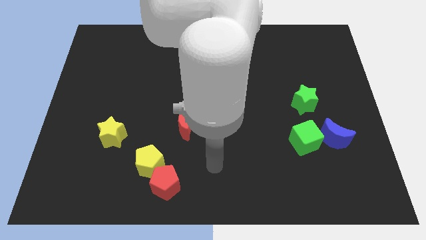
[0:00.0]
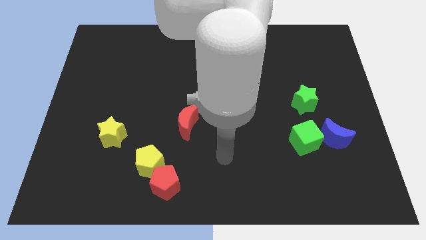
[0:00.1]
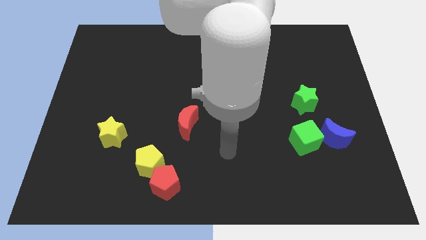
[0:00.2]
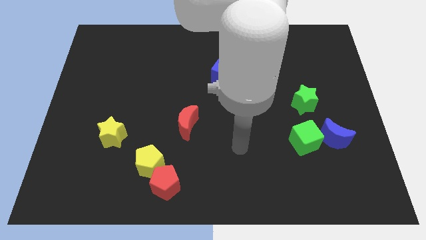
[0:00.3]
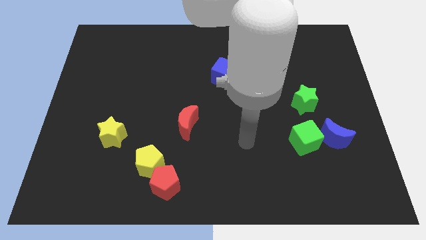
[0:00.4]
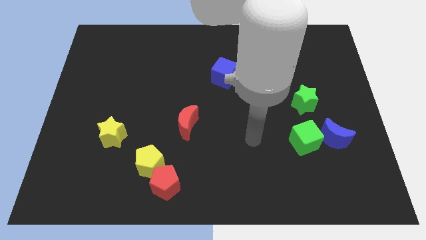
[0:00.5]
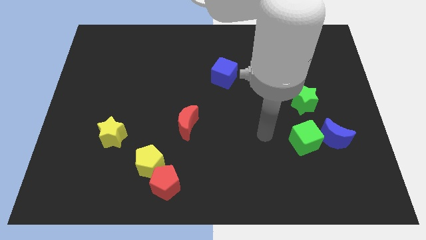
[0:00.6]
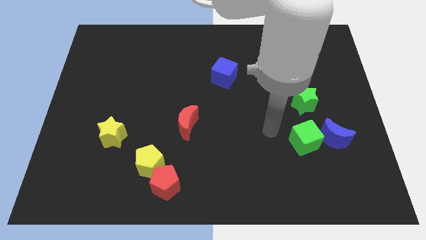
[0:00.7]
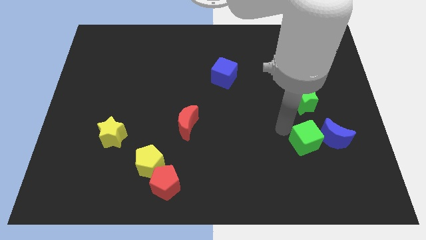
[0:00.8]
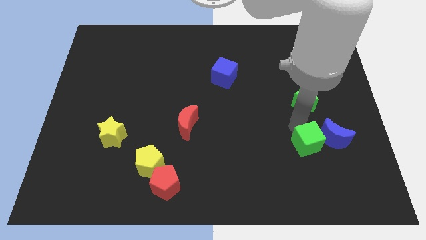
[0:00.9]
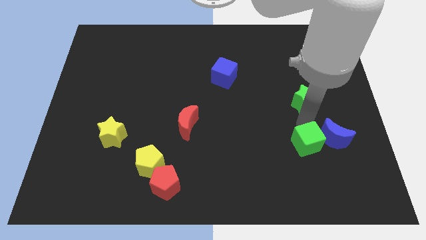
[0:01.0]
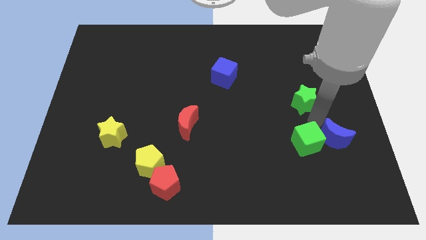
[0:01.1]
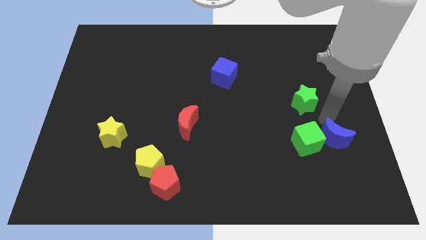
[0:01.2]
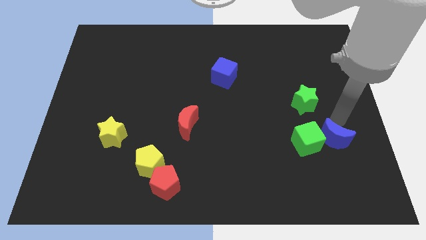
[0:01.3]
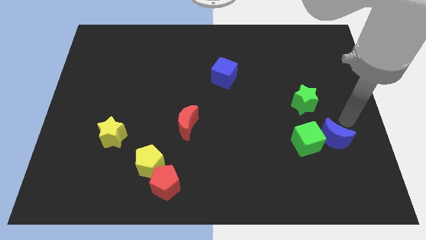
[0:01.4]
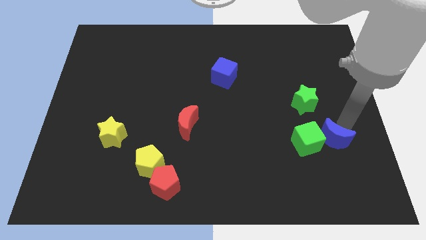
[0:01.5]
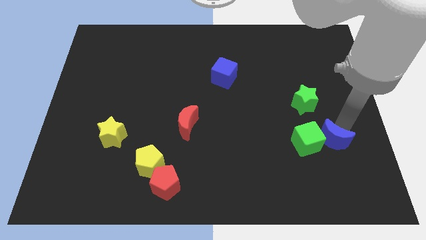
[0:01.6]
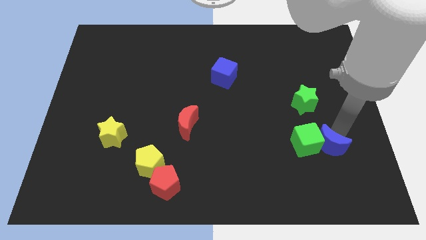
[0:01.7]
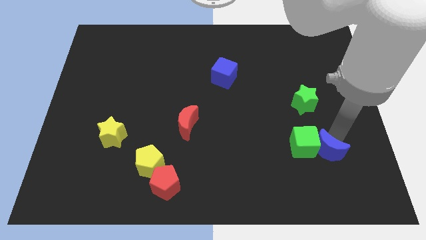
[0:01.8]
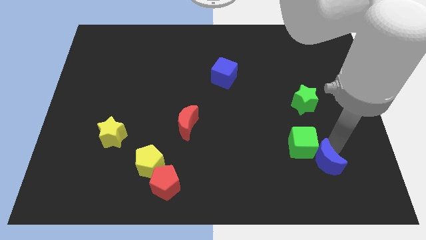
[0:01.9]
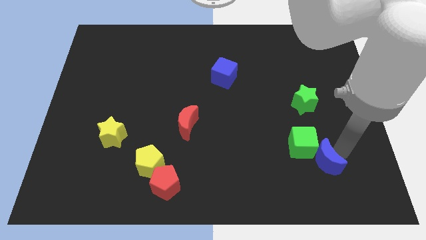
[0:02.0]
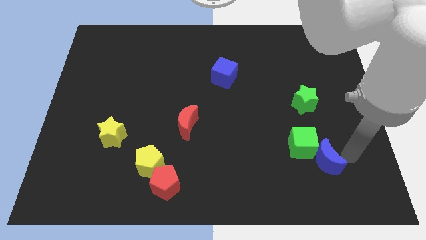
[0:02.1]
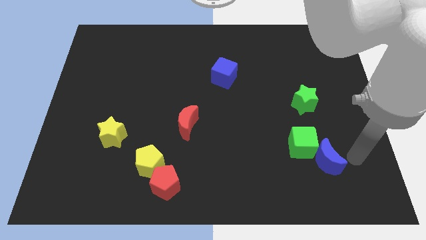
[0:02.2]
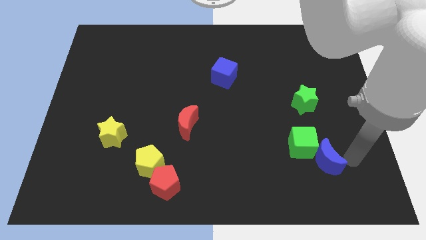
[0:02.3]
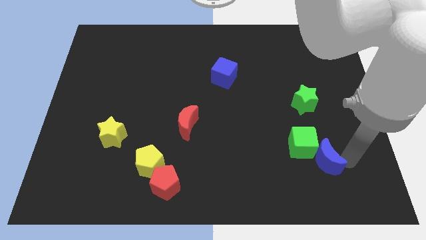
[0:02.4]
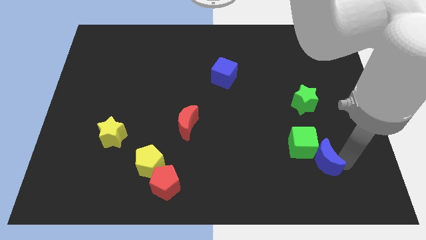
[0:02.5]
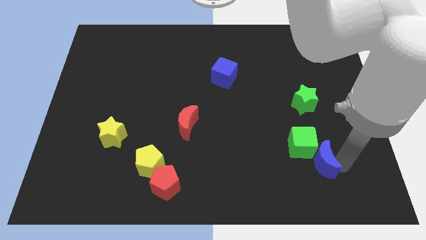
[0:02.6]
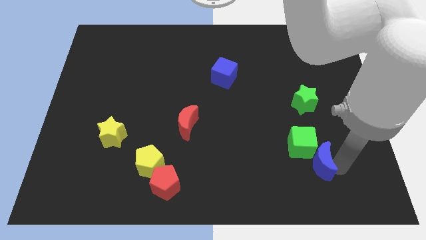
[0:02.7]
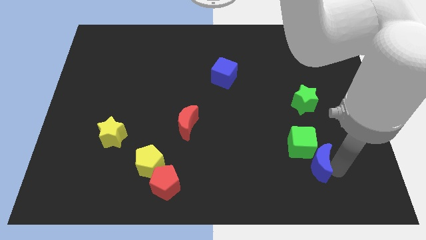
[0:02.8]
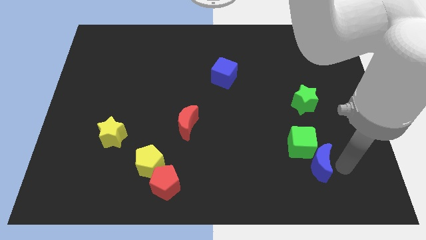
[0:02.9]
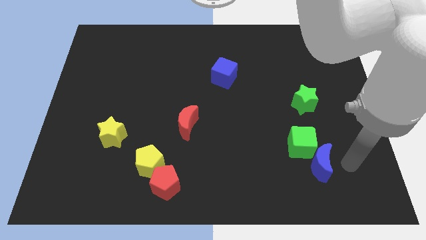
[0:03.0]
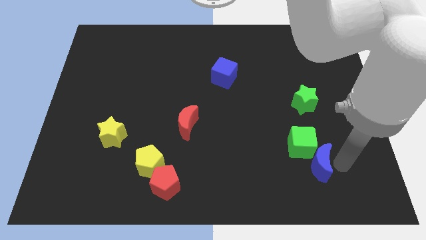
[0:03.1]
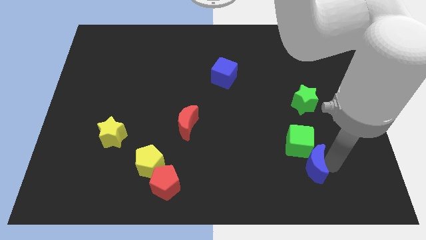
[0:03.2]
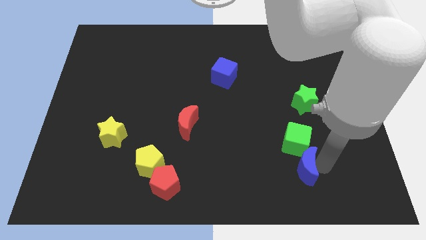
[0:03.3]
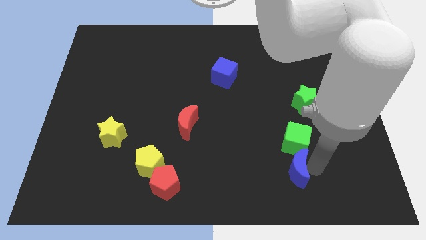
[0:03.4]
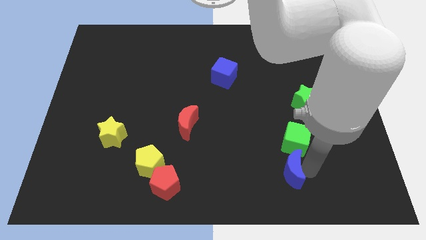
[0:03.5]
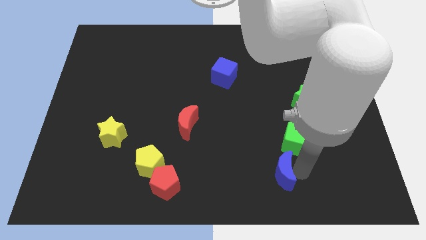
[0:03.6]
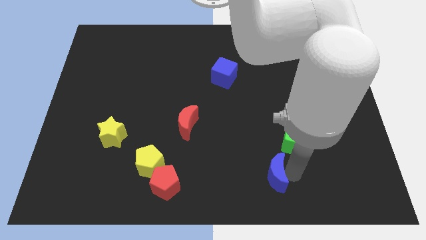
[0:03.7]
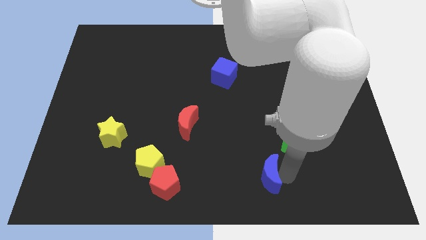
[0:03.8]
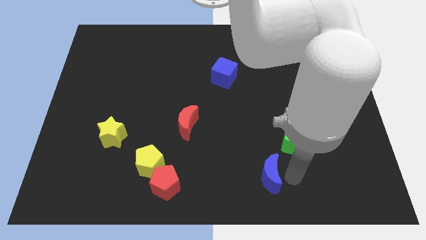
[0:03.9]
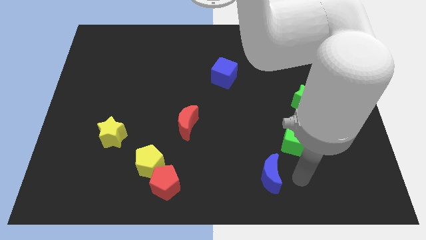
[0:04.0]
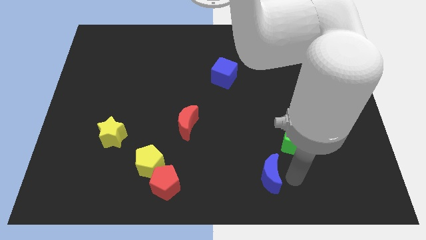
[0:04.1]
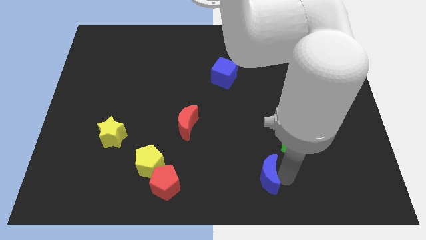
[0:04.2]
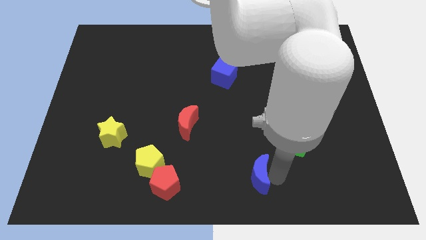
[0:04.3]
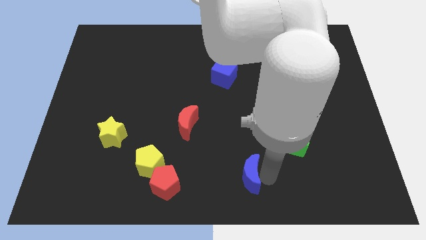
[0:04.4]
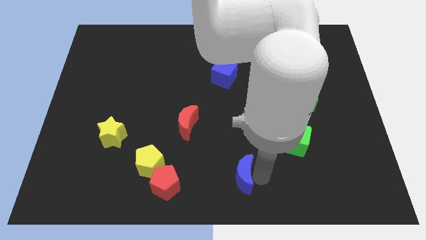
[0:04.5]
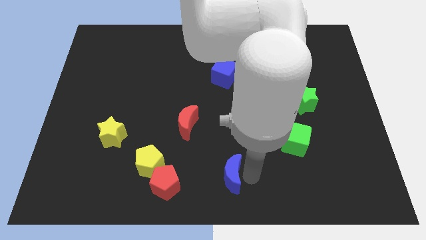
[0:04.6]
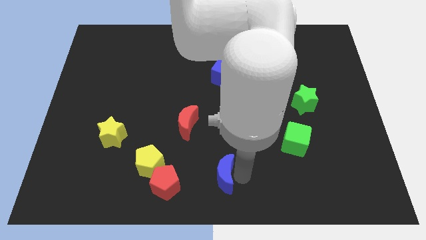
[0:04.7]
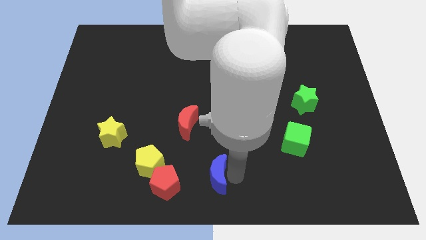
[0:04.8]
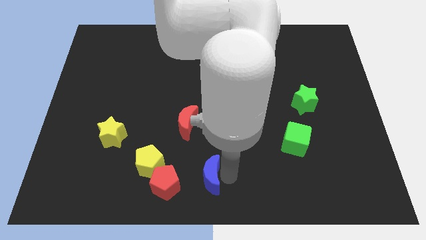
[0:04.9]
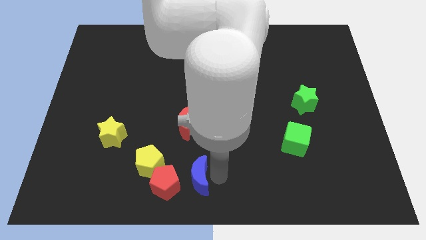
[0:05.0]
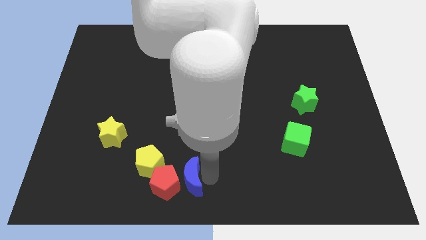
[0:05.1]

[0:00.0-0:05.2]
slide the blue moon next to the red pentagon

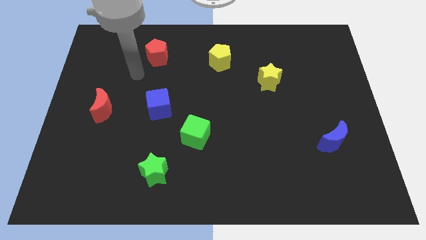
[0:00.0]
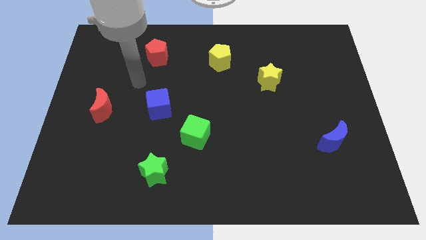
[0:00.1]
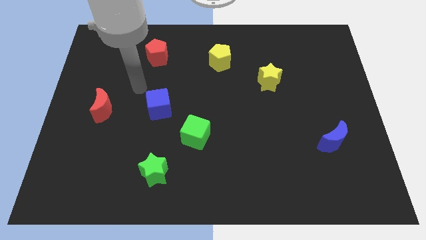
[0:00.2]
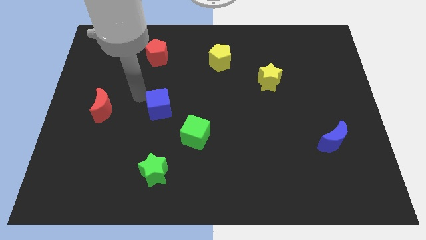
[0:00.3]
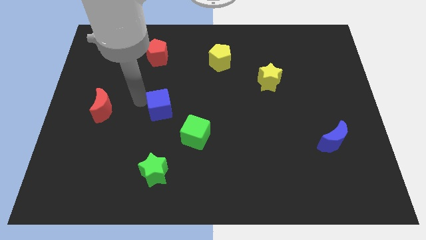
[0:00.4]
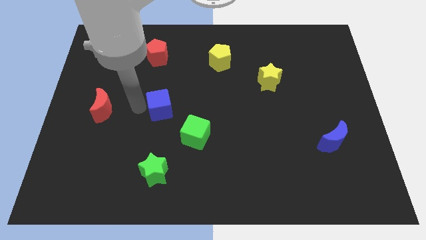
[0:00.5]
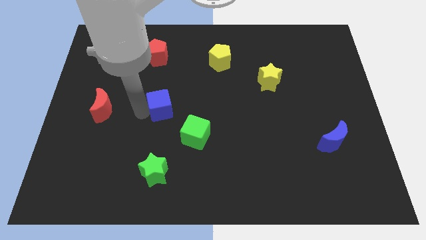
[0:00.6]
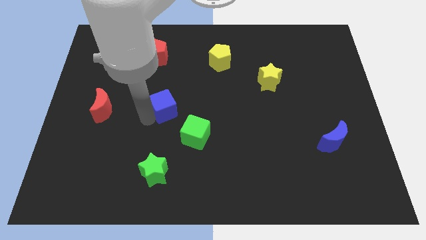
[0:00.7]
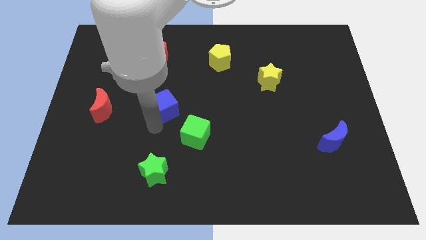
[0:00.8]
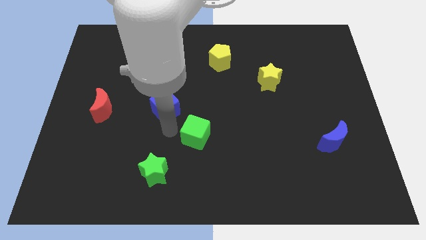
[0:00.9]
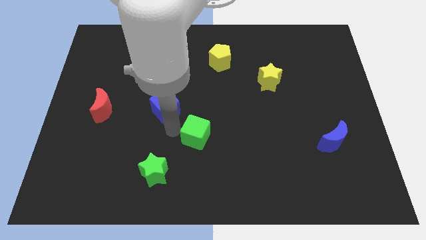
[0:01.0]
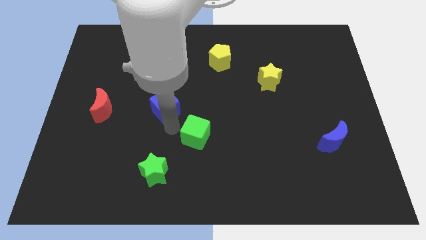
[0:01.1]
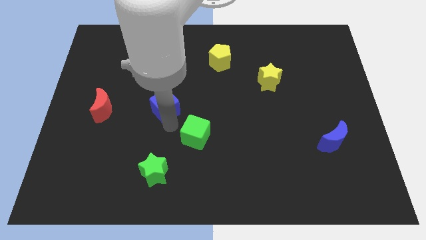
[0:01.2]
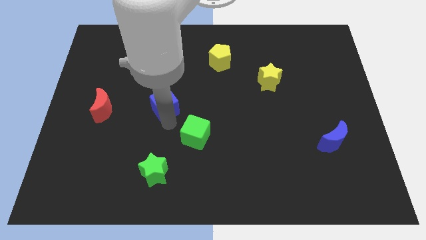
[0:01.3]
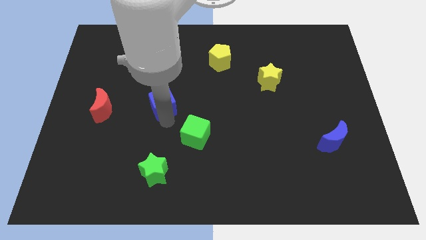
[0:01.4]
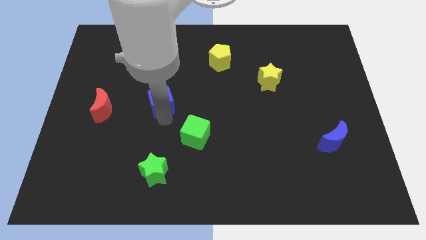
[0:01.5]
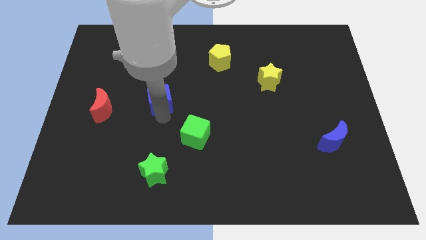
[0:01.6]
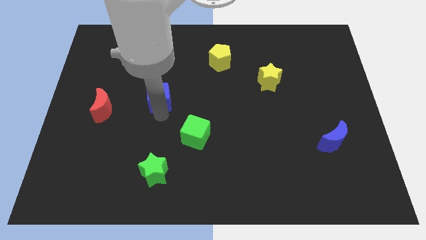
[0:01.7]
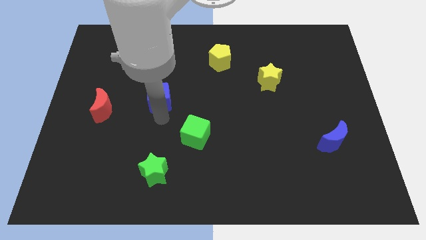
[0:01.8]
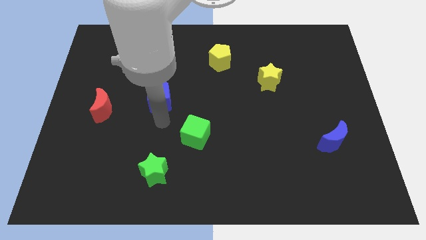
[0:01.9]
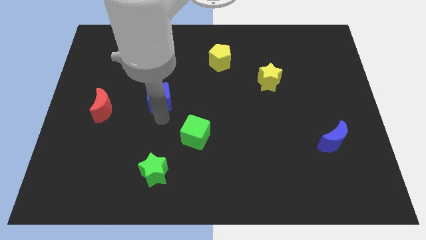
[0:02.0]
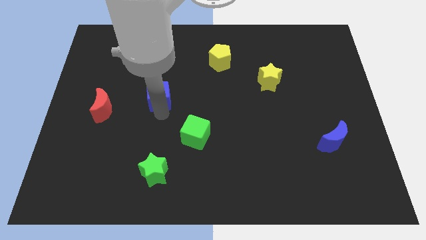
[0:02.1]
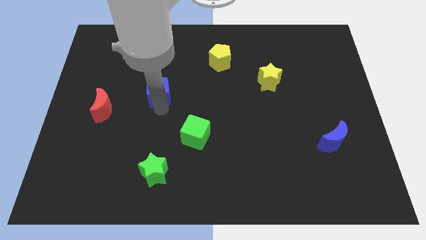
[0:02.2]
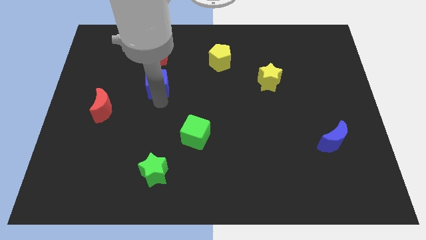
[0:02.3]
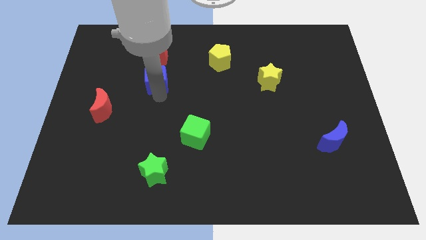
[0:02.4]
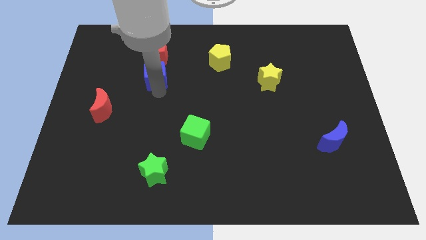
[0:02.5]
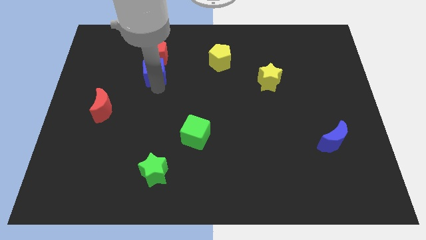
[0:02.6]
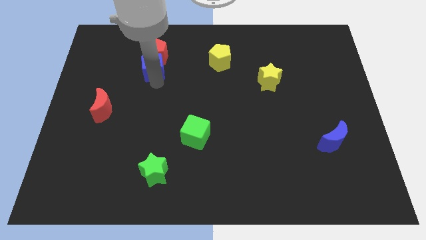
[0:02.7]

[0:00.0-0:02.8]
slide the blue cube towards the red pentagon
